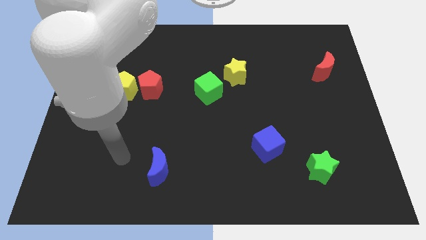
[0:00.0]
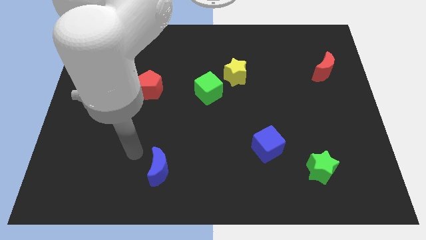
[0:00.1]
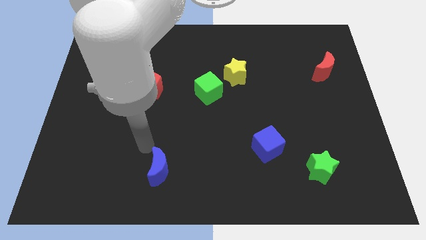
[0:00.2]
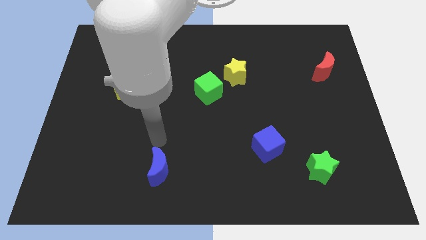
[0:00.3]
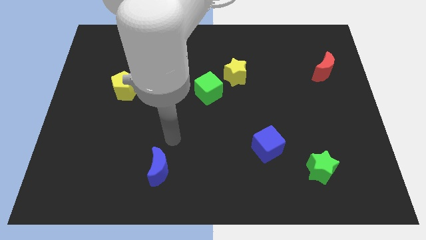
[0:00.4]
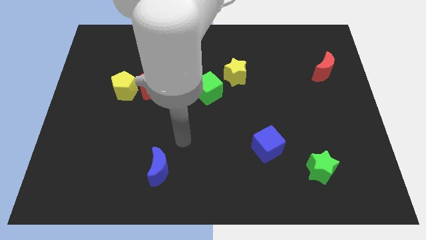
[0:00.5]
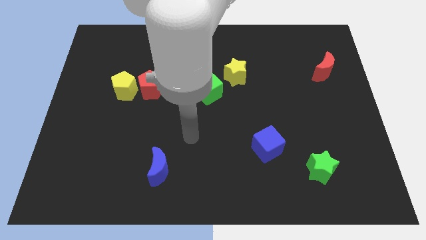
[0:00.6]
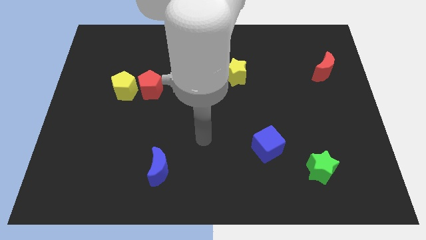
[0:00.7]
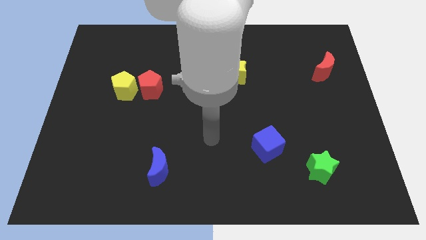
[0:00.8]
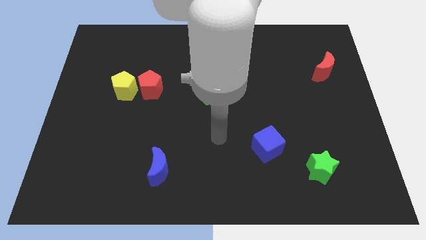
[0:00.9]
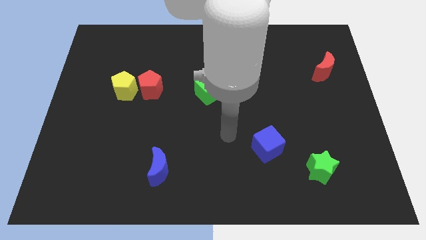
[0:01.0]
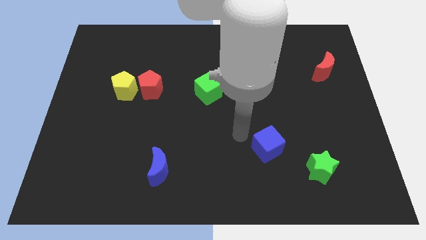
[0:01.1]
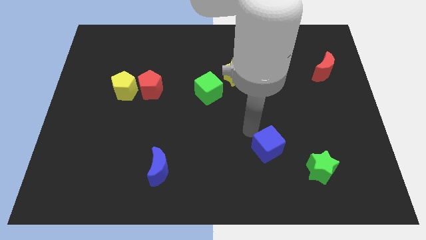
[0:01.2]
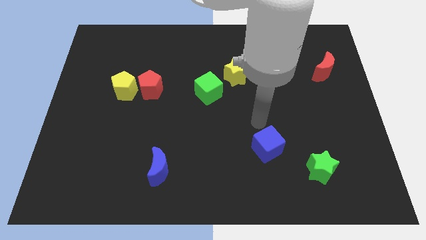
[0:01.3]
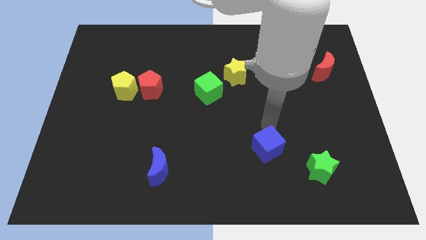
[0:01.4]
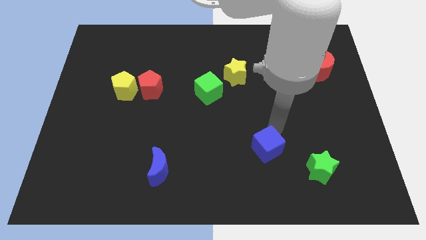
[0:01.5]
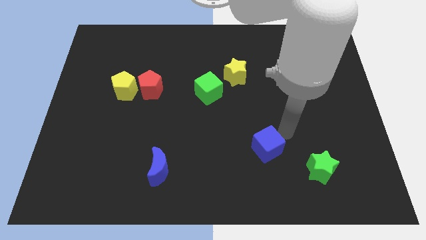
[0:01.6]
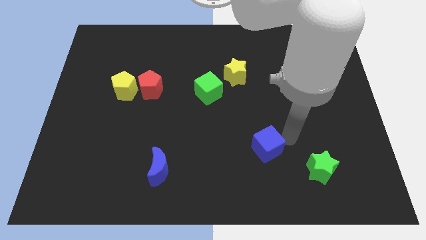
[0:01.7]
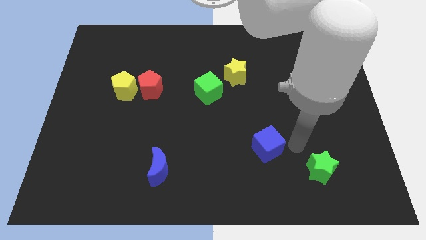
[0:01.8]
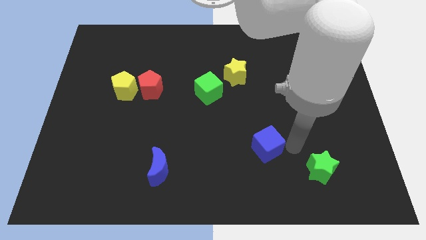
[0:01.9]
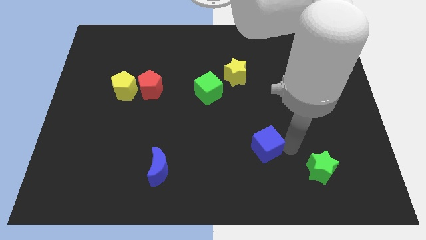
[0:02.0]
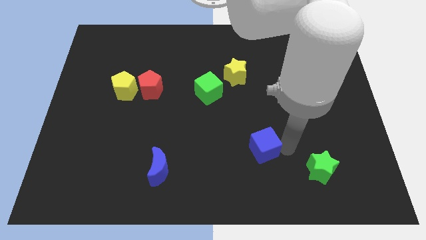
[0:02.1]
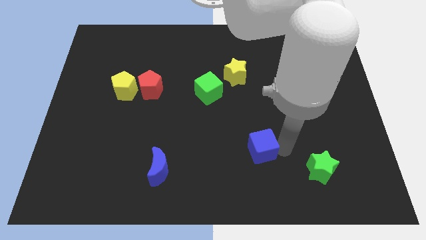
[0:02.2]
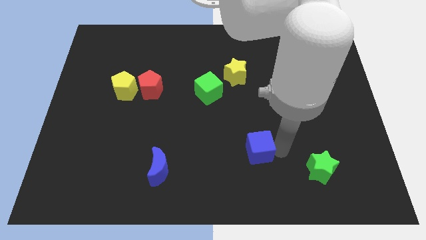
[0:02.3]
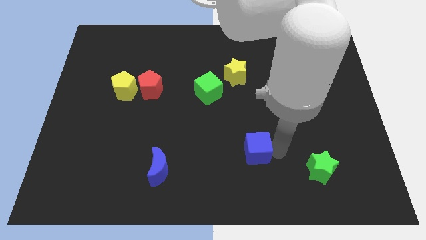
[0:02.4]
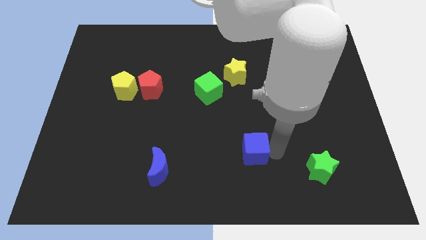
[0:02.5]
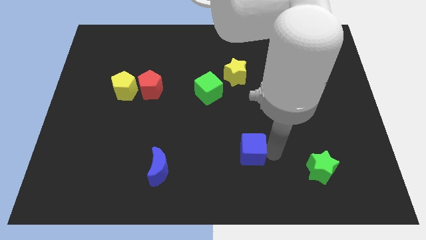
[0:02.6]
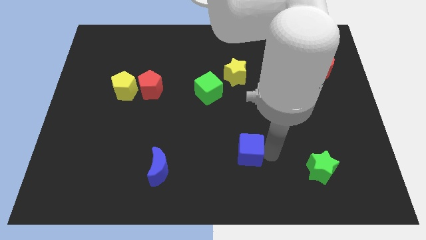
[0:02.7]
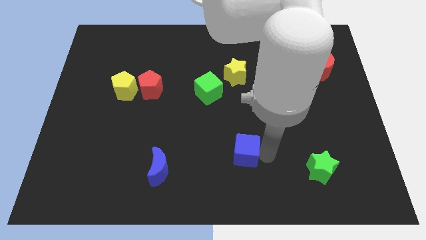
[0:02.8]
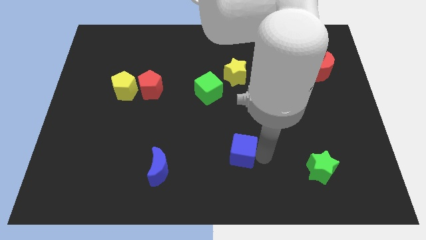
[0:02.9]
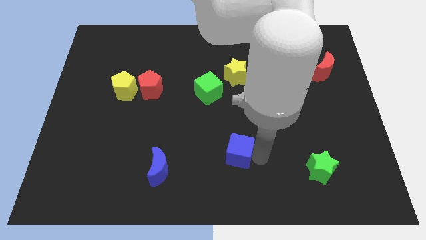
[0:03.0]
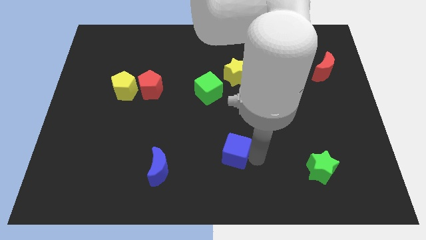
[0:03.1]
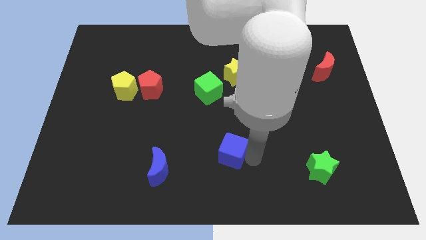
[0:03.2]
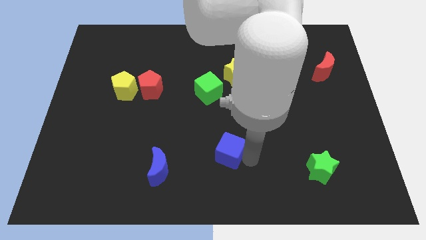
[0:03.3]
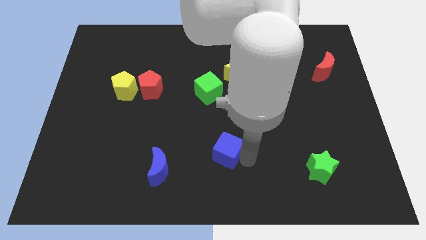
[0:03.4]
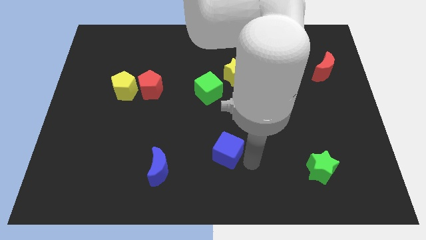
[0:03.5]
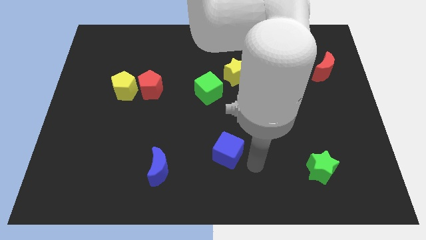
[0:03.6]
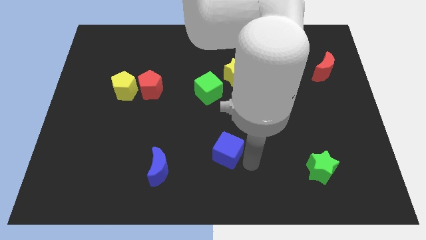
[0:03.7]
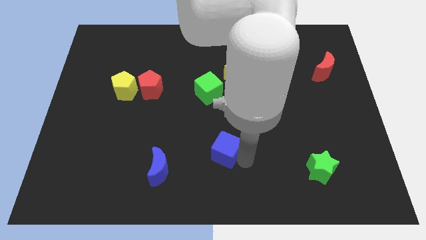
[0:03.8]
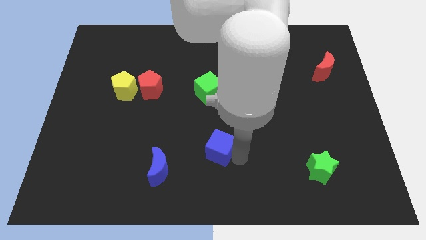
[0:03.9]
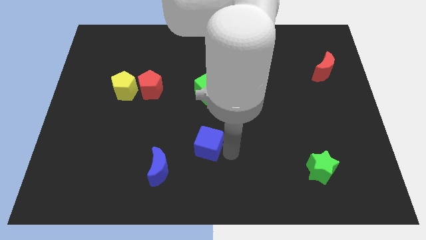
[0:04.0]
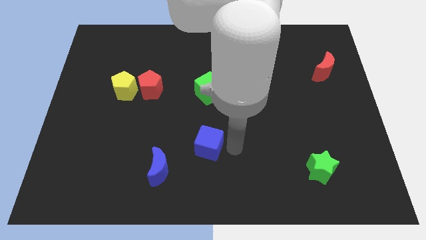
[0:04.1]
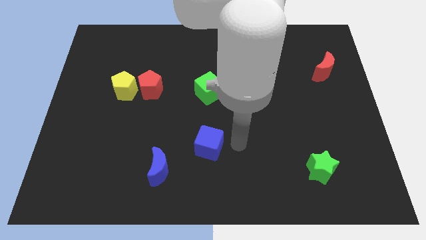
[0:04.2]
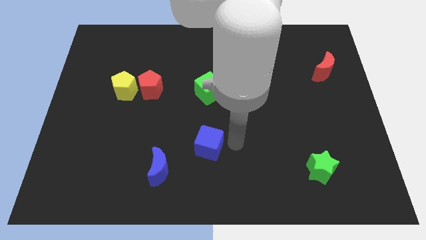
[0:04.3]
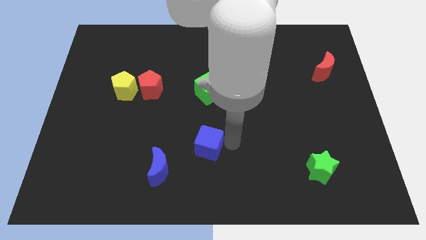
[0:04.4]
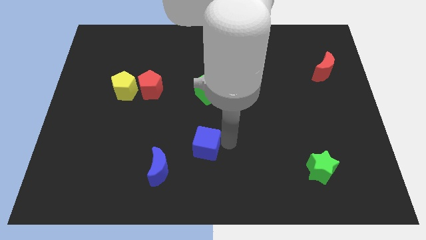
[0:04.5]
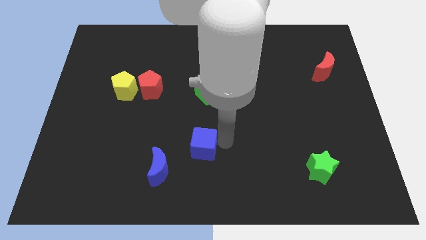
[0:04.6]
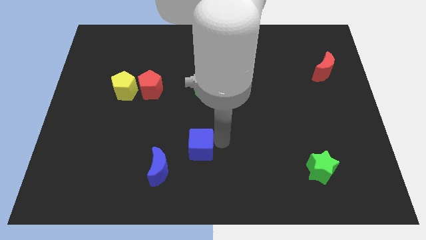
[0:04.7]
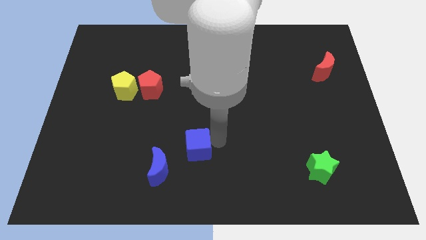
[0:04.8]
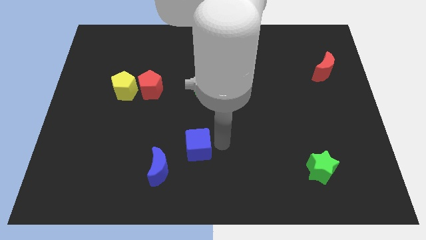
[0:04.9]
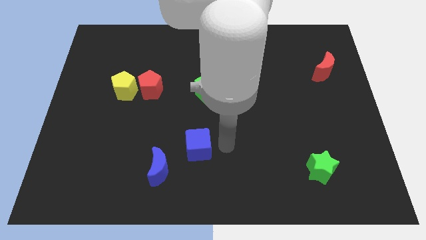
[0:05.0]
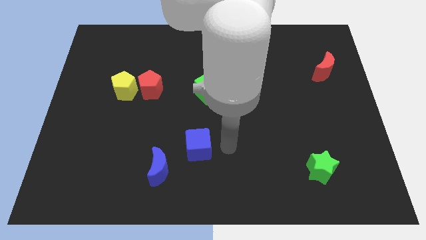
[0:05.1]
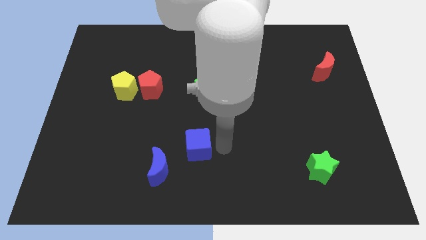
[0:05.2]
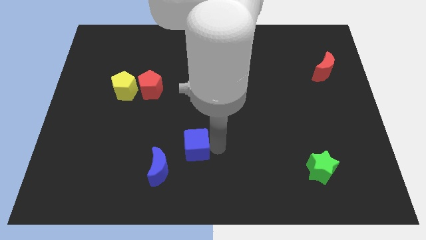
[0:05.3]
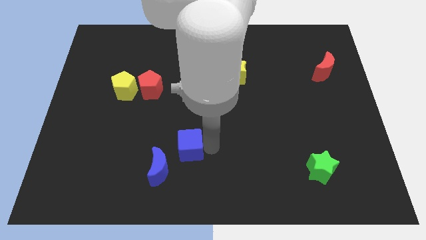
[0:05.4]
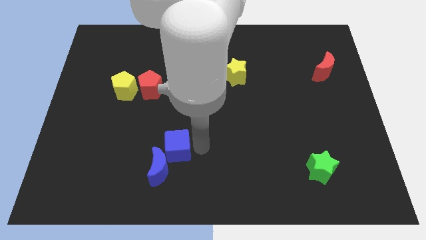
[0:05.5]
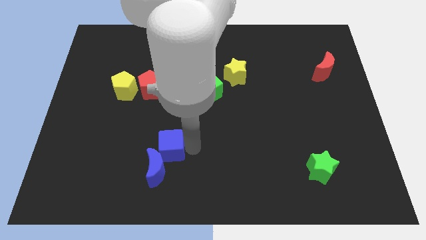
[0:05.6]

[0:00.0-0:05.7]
move the blue cube left

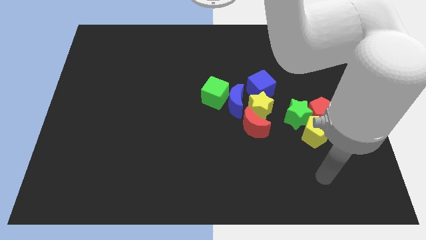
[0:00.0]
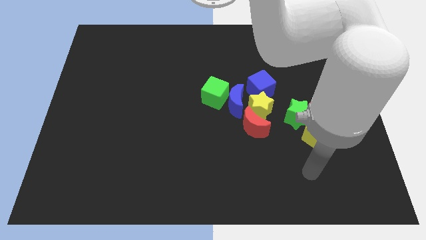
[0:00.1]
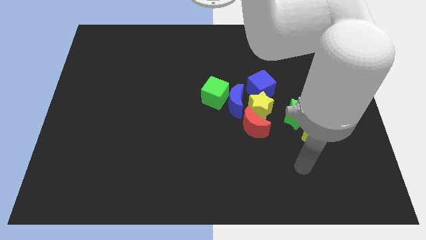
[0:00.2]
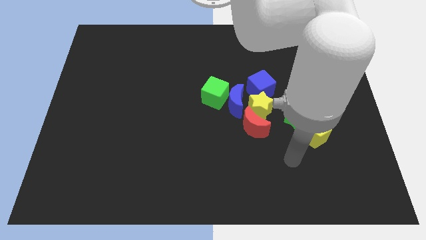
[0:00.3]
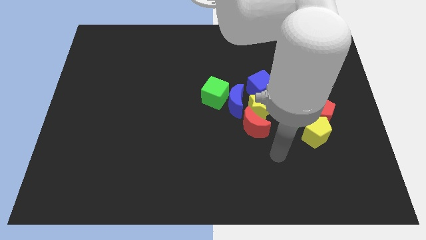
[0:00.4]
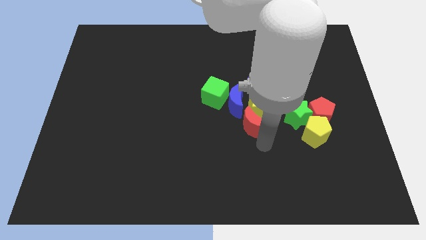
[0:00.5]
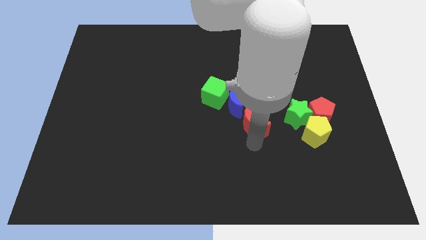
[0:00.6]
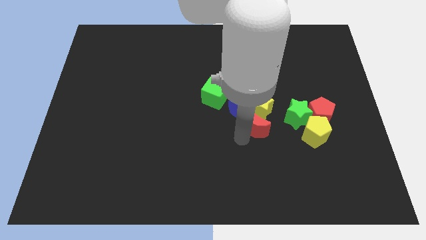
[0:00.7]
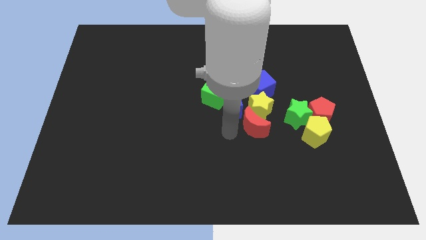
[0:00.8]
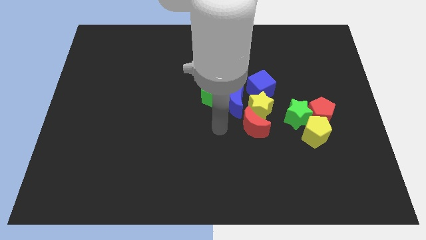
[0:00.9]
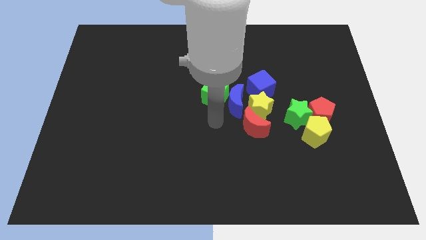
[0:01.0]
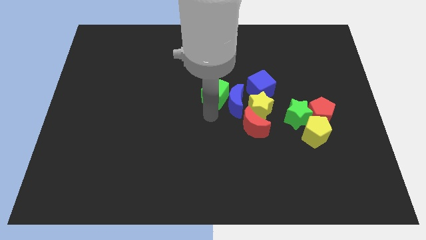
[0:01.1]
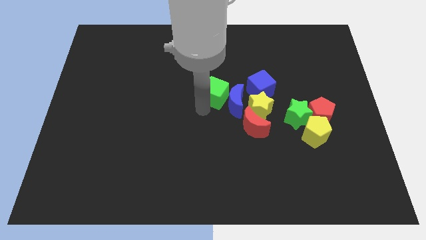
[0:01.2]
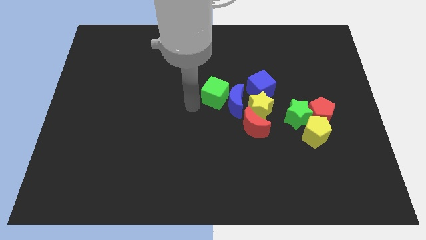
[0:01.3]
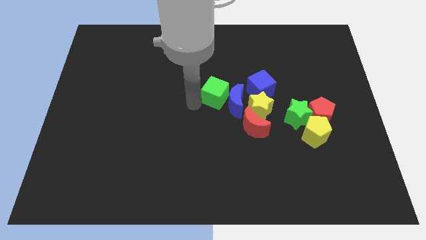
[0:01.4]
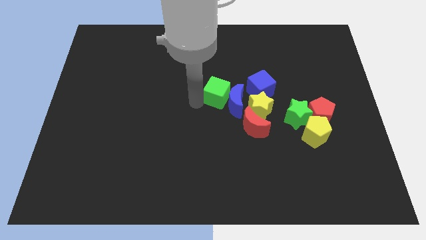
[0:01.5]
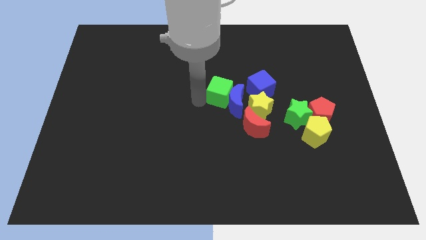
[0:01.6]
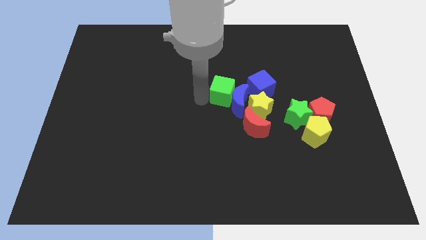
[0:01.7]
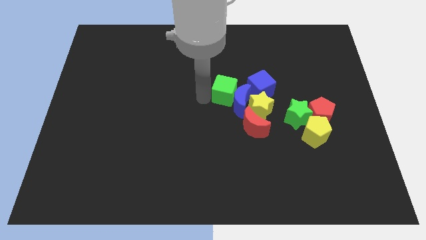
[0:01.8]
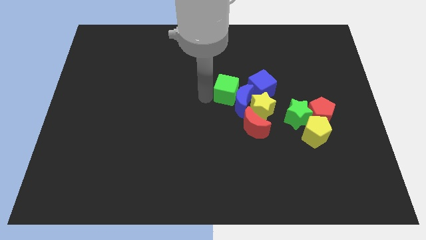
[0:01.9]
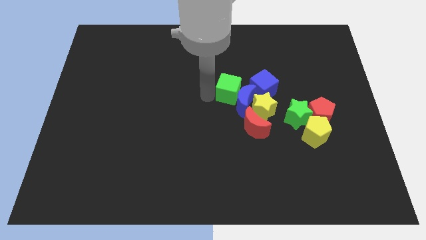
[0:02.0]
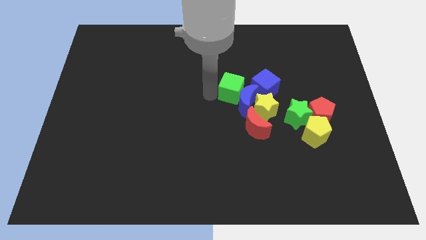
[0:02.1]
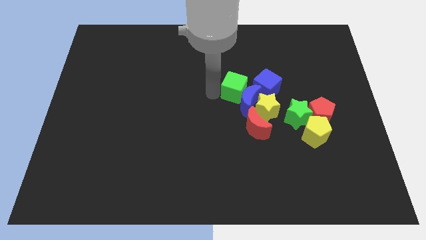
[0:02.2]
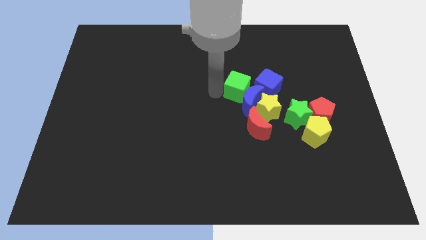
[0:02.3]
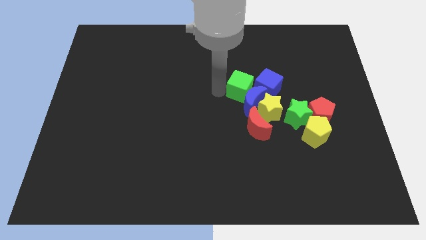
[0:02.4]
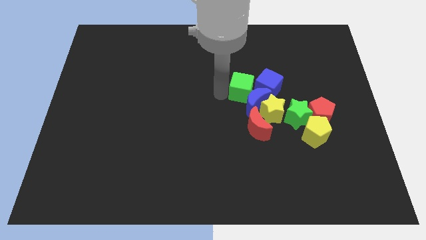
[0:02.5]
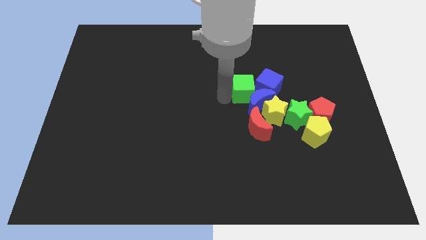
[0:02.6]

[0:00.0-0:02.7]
push the green cube to the right slightly

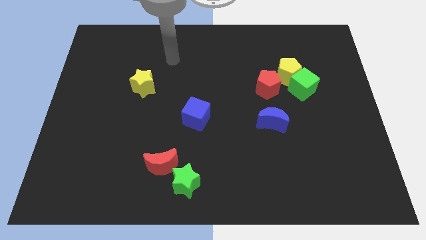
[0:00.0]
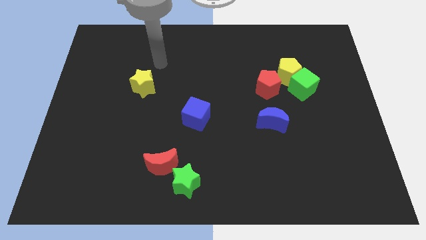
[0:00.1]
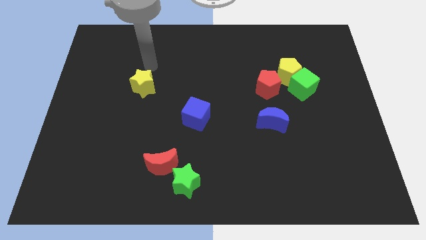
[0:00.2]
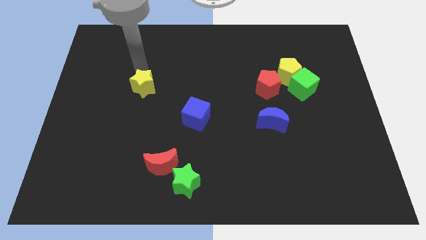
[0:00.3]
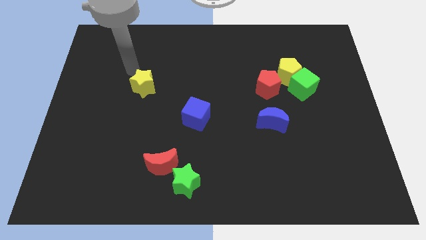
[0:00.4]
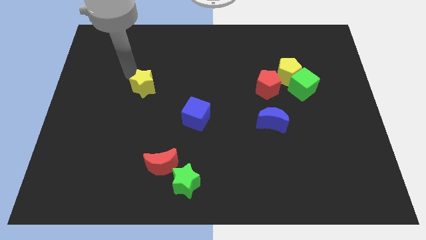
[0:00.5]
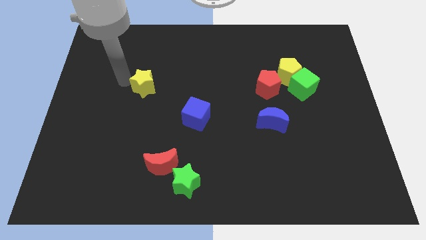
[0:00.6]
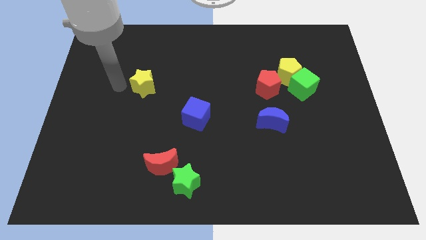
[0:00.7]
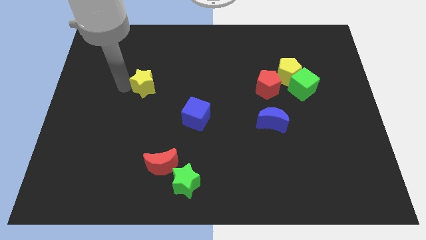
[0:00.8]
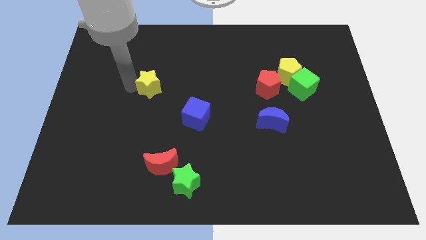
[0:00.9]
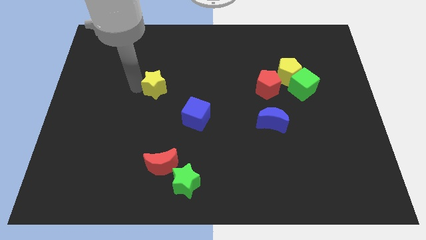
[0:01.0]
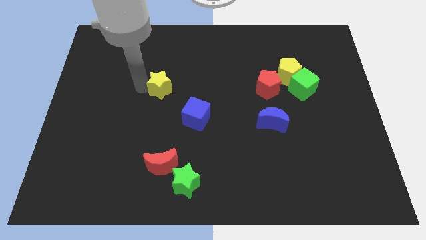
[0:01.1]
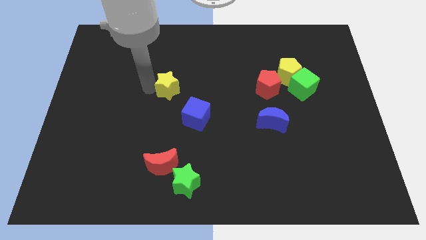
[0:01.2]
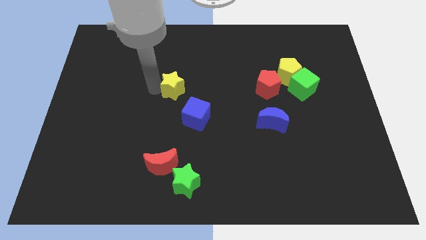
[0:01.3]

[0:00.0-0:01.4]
push the yellow star right a little bit
